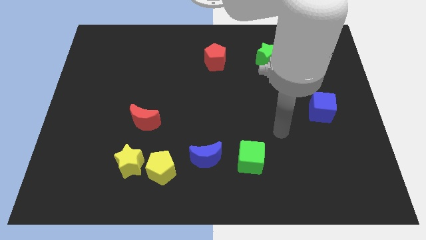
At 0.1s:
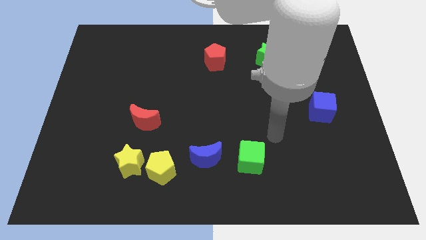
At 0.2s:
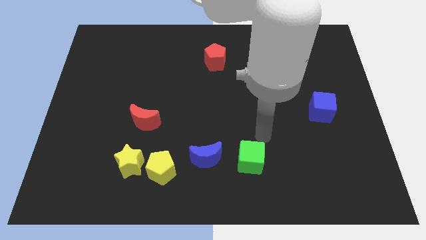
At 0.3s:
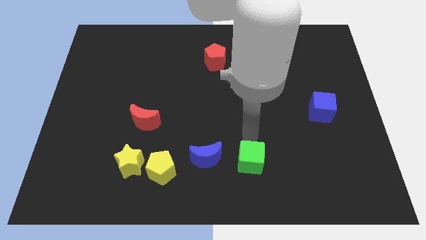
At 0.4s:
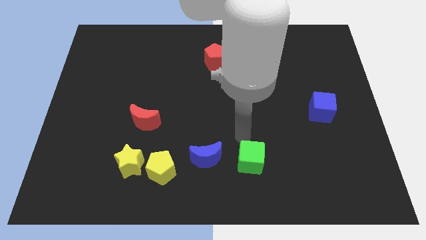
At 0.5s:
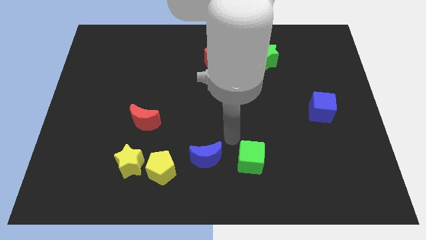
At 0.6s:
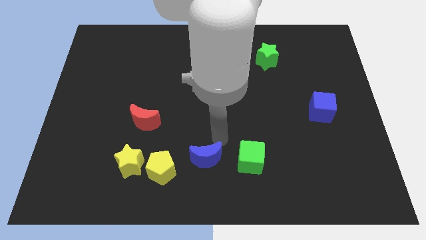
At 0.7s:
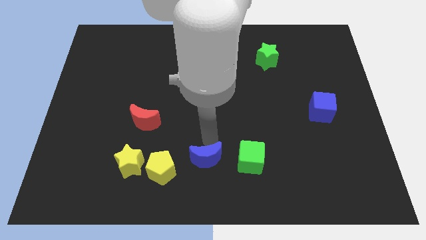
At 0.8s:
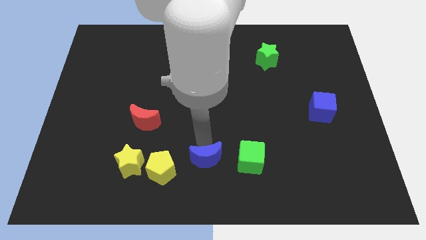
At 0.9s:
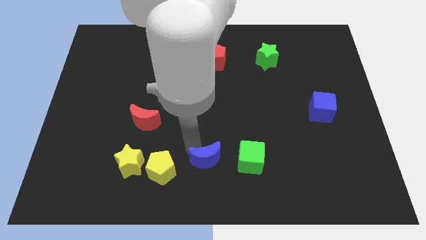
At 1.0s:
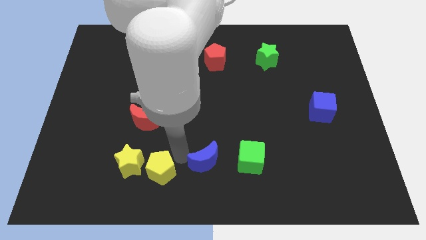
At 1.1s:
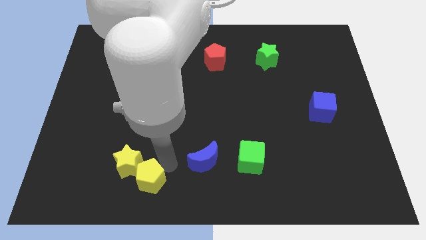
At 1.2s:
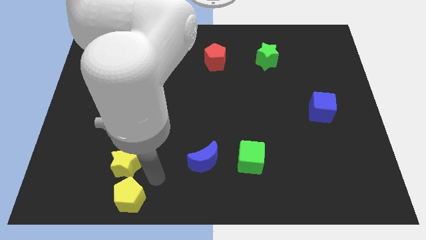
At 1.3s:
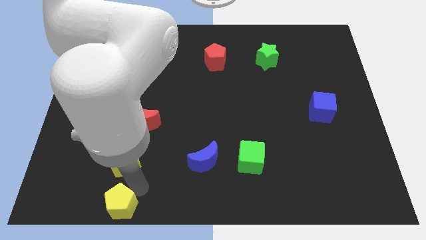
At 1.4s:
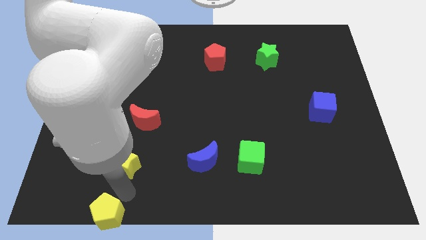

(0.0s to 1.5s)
pull the yellow star apart from the yellow pentagon

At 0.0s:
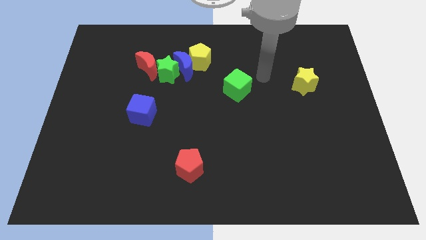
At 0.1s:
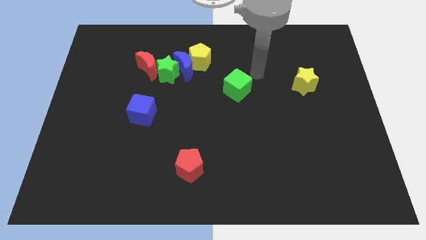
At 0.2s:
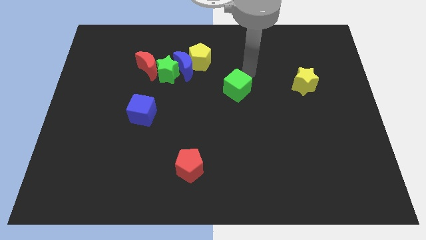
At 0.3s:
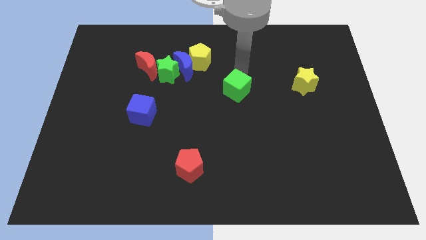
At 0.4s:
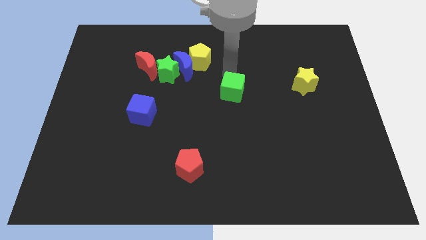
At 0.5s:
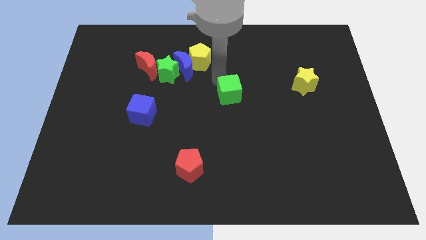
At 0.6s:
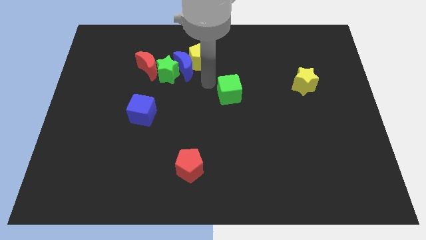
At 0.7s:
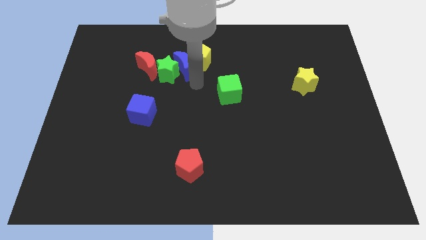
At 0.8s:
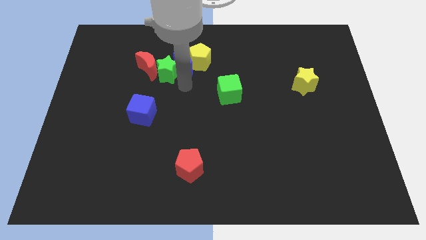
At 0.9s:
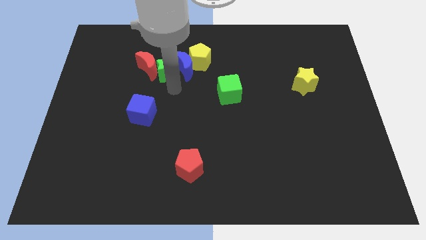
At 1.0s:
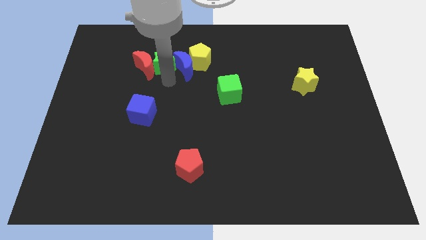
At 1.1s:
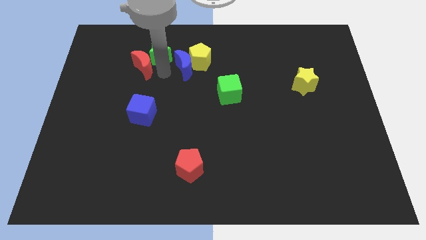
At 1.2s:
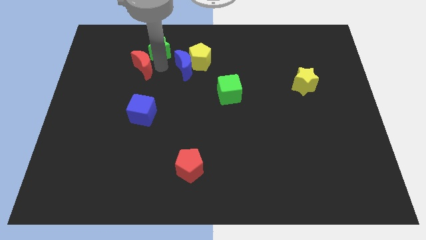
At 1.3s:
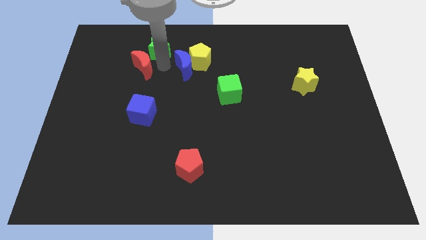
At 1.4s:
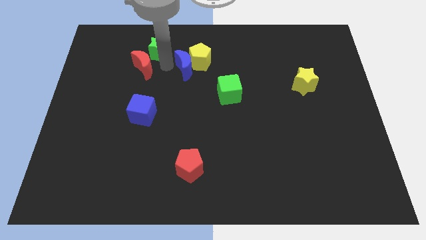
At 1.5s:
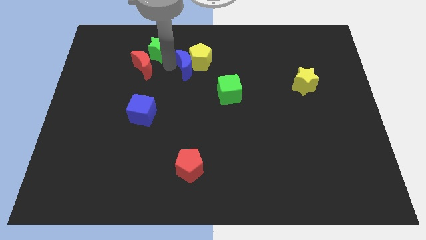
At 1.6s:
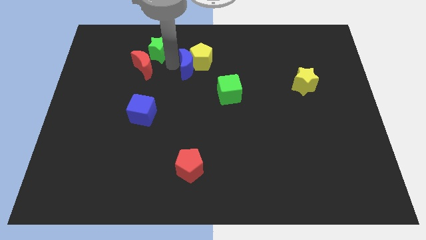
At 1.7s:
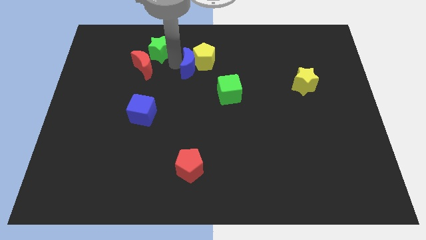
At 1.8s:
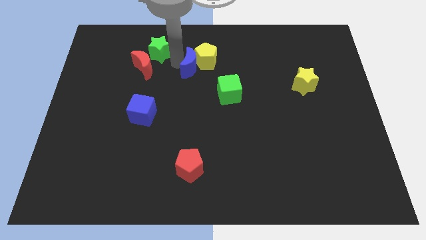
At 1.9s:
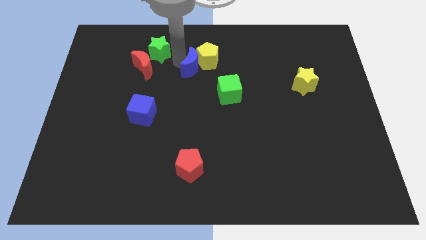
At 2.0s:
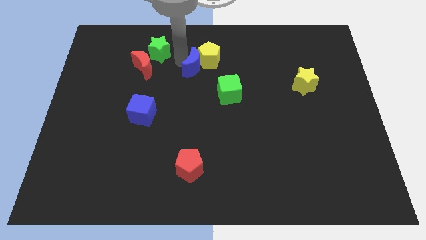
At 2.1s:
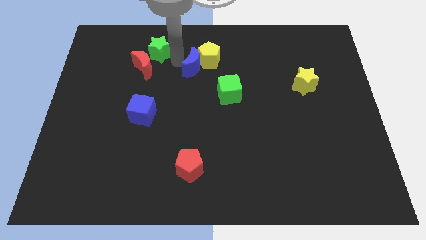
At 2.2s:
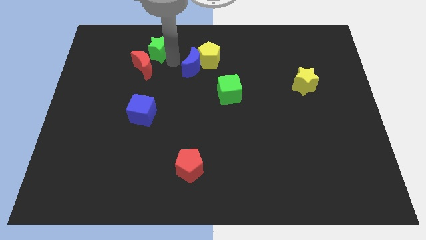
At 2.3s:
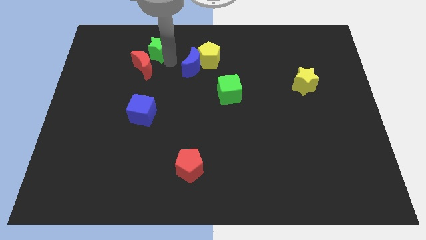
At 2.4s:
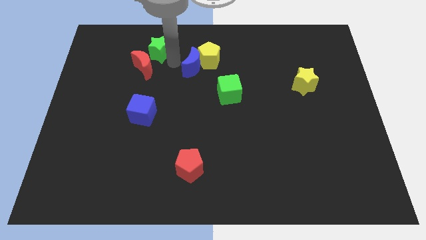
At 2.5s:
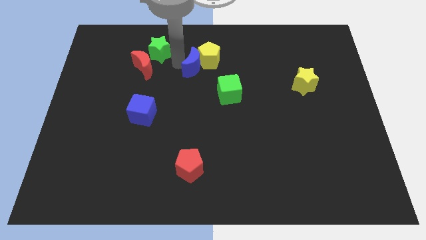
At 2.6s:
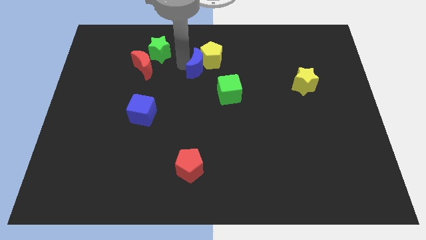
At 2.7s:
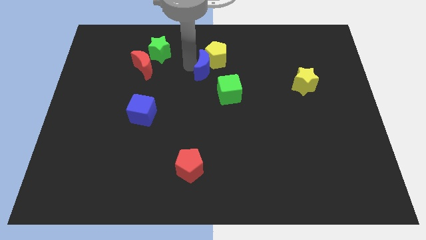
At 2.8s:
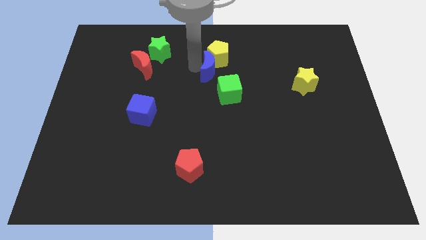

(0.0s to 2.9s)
separate the blue moon from the green star, yellow pentagon, and red moon

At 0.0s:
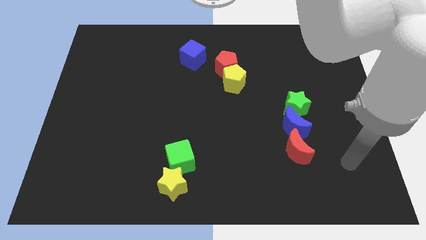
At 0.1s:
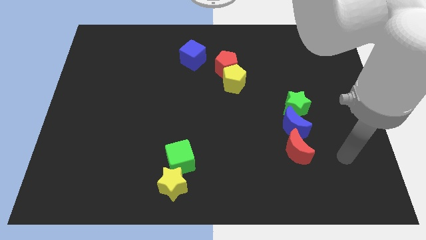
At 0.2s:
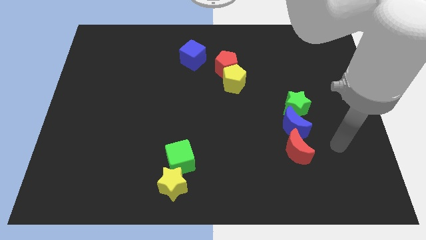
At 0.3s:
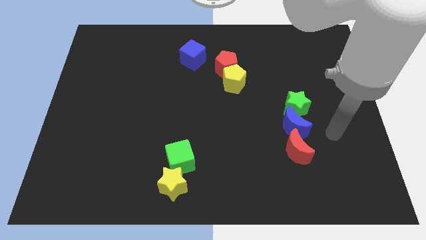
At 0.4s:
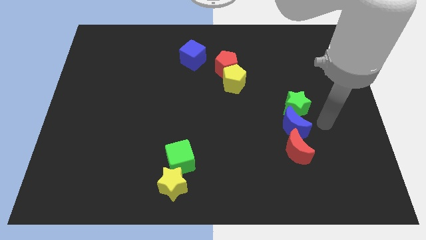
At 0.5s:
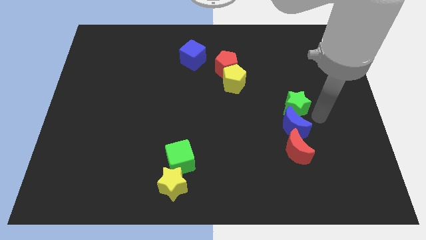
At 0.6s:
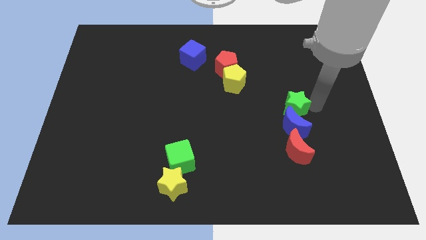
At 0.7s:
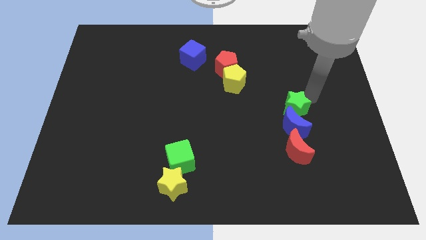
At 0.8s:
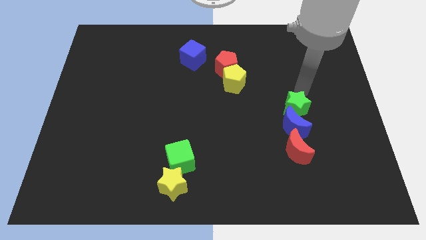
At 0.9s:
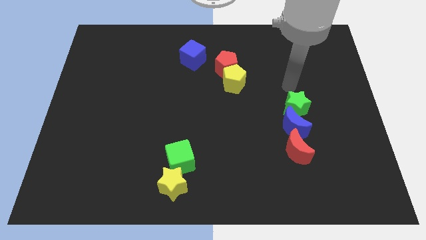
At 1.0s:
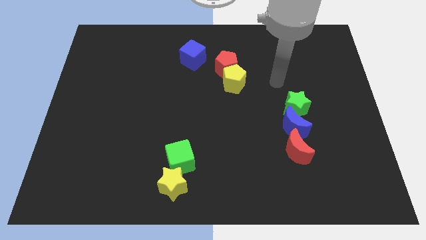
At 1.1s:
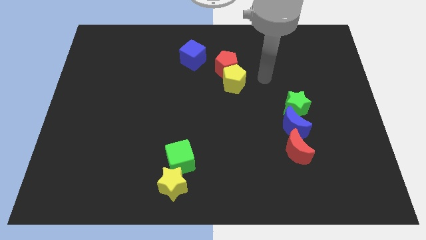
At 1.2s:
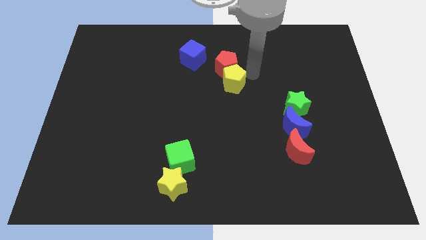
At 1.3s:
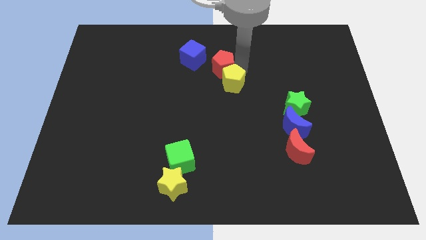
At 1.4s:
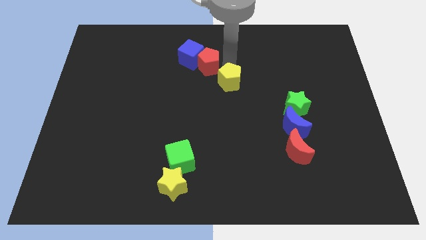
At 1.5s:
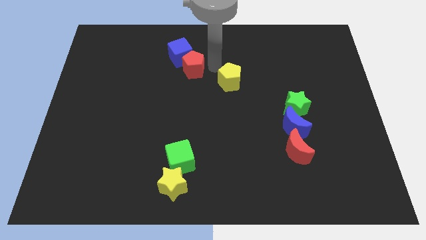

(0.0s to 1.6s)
move the yellow pentagon away from the red pentagon

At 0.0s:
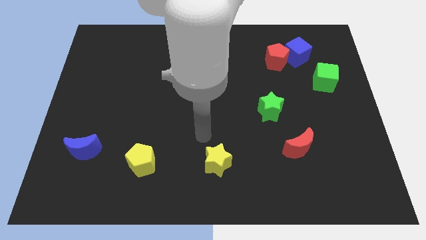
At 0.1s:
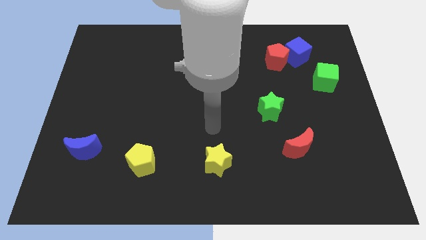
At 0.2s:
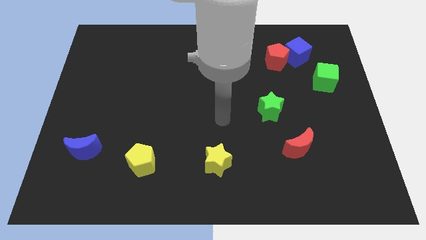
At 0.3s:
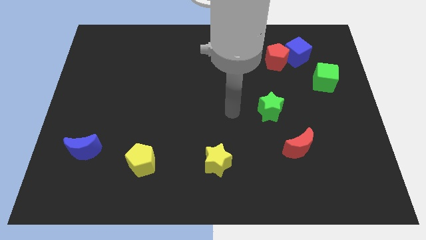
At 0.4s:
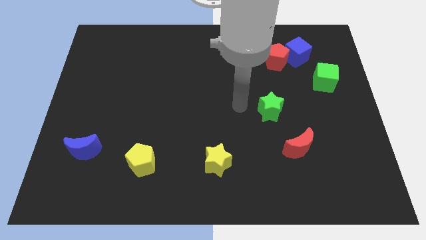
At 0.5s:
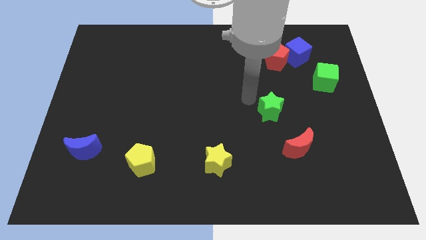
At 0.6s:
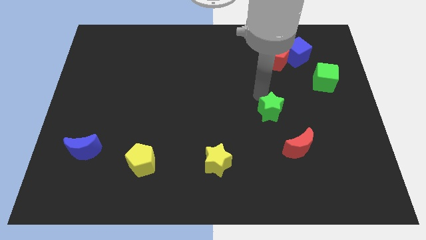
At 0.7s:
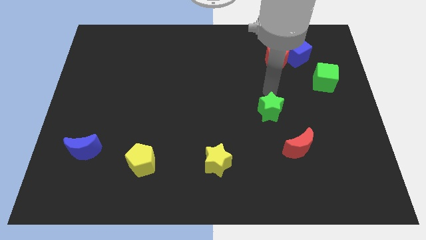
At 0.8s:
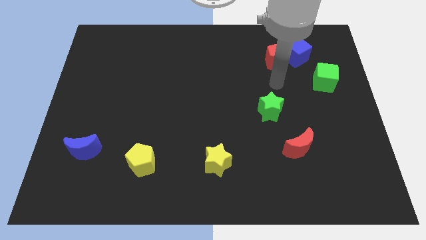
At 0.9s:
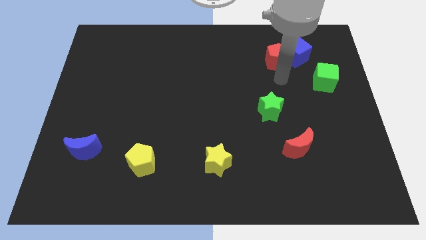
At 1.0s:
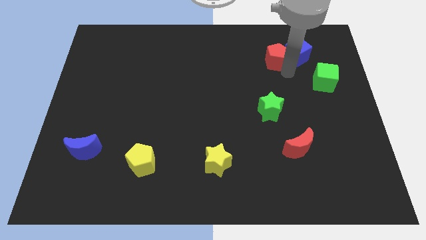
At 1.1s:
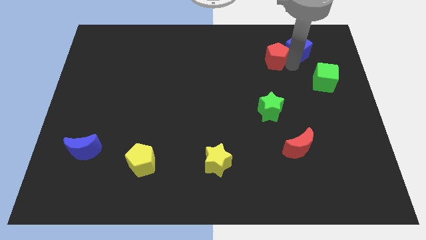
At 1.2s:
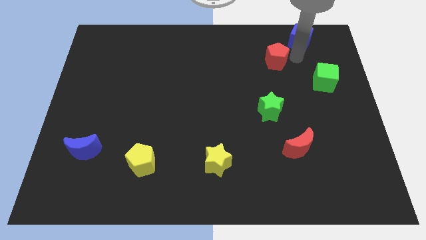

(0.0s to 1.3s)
move the red pentagon away from the blue cube

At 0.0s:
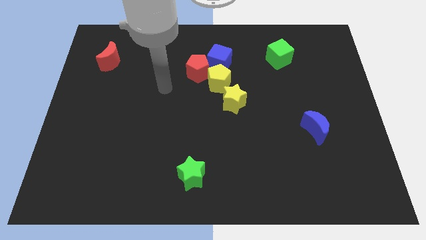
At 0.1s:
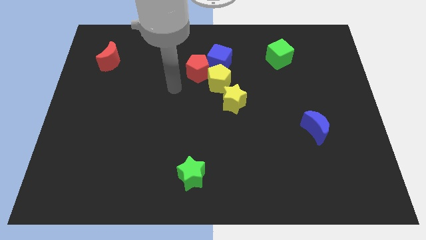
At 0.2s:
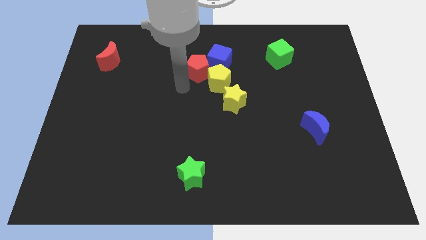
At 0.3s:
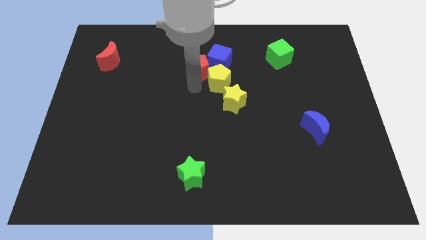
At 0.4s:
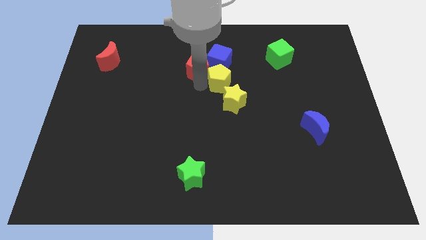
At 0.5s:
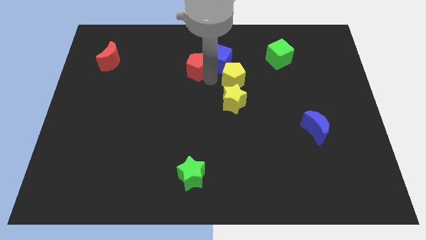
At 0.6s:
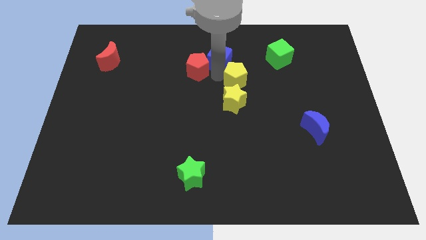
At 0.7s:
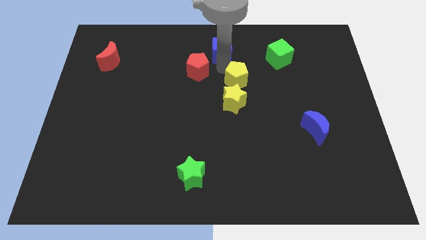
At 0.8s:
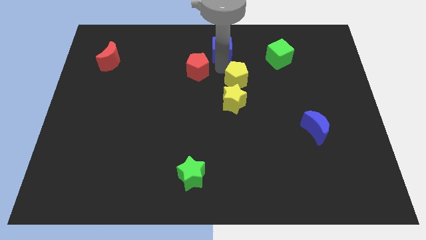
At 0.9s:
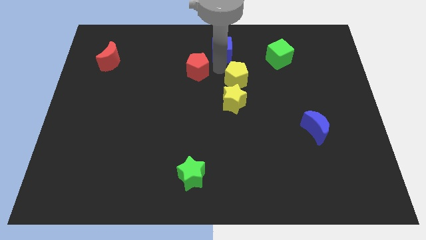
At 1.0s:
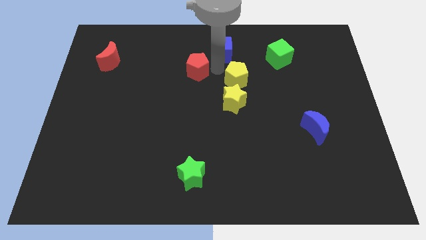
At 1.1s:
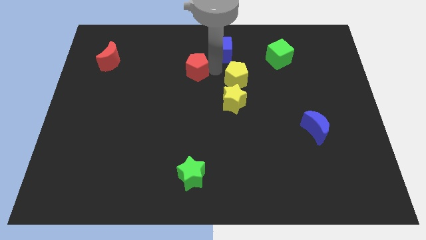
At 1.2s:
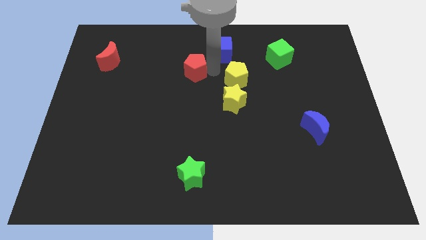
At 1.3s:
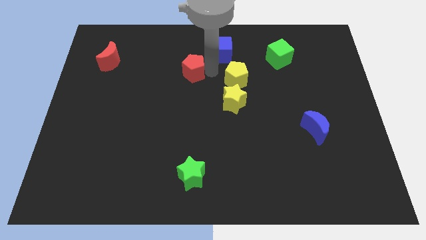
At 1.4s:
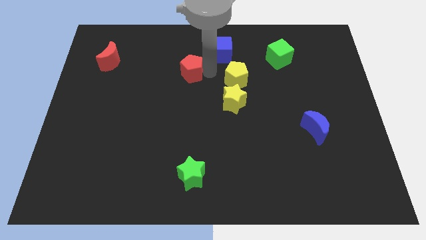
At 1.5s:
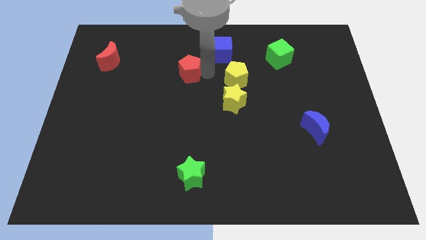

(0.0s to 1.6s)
separate the red pentagon from the yellow pentagon and blue cube

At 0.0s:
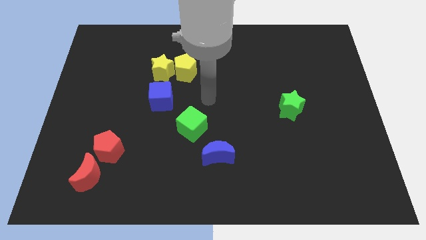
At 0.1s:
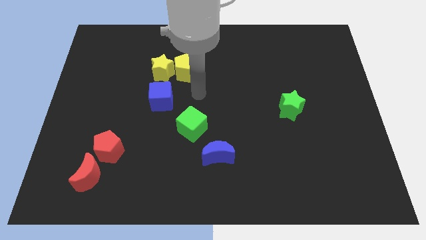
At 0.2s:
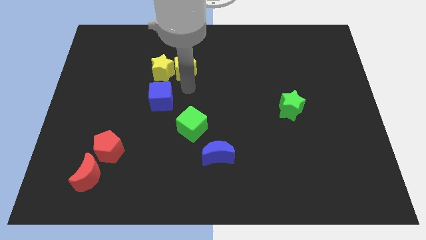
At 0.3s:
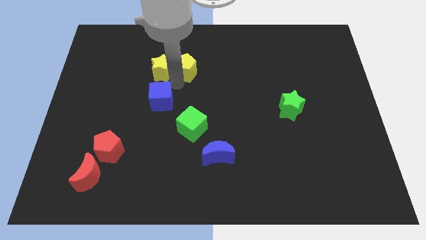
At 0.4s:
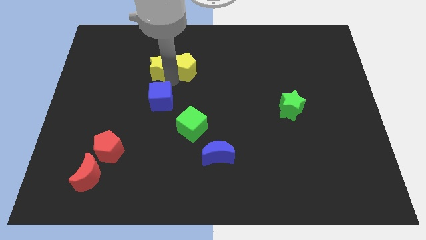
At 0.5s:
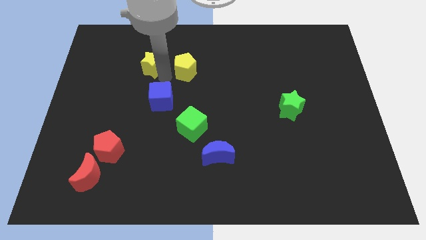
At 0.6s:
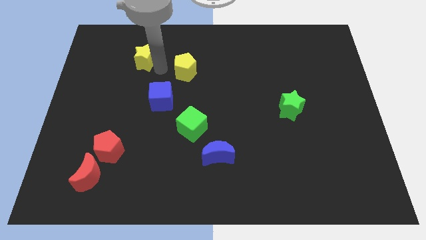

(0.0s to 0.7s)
separate the yellow pentagon from the yellow star
